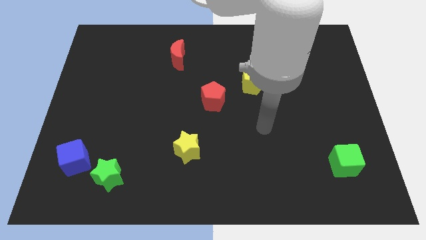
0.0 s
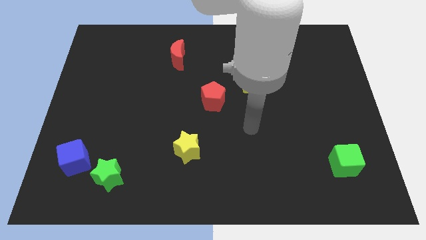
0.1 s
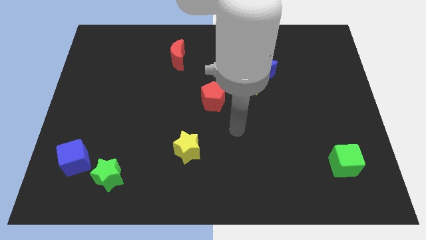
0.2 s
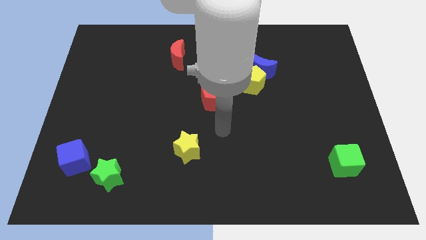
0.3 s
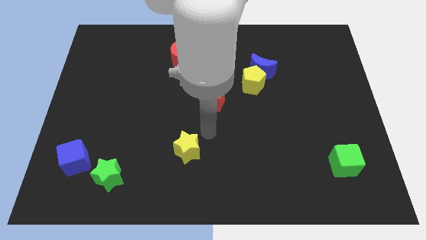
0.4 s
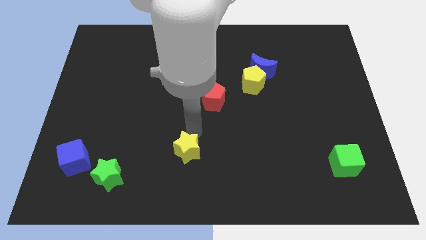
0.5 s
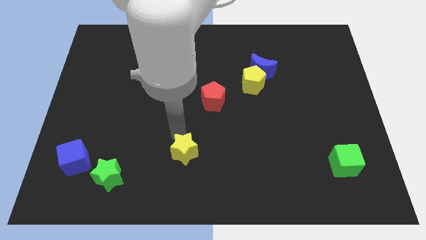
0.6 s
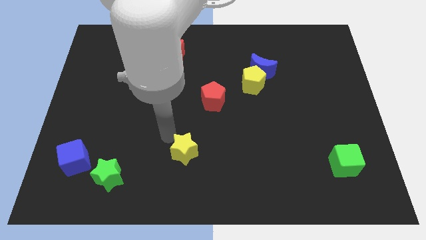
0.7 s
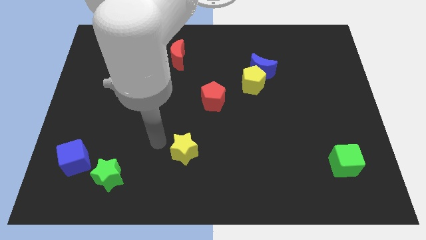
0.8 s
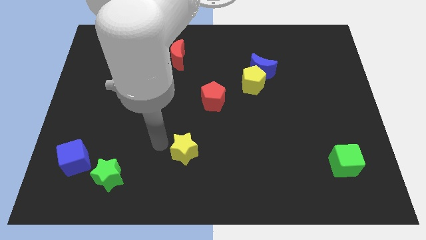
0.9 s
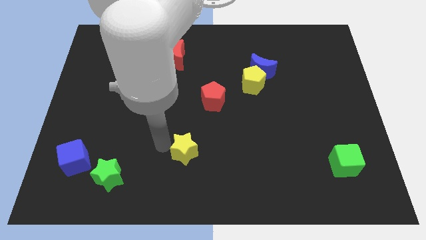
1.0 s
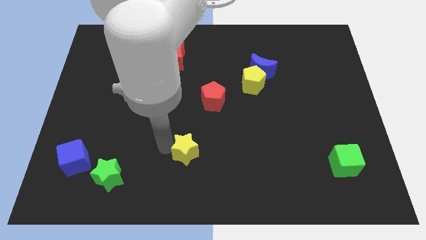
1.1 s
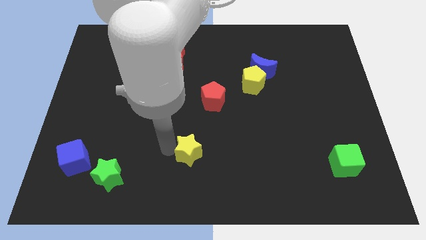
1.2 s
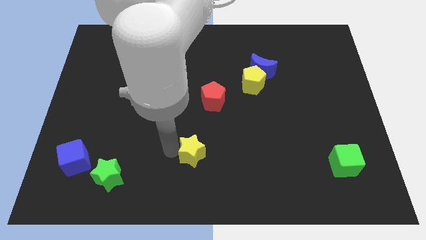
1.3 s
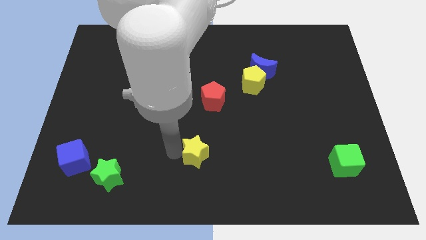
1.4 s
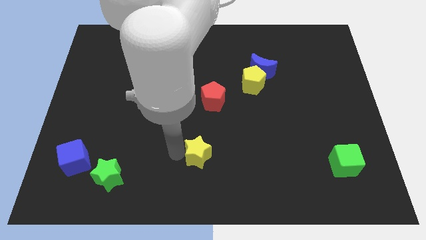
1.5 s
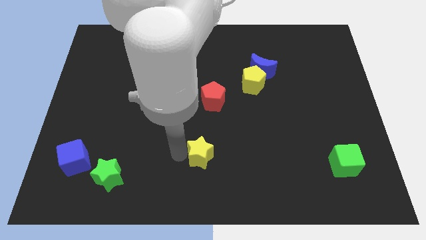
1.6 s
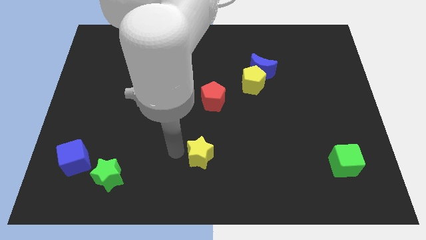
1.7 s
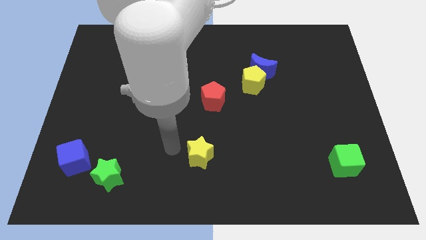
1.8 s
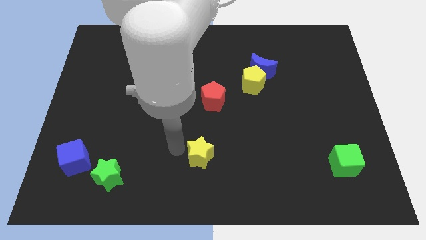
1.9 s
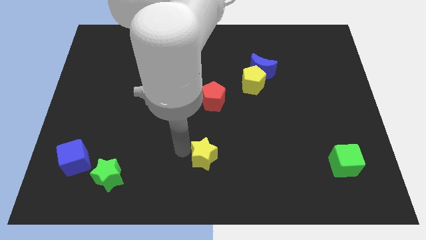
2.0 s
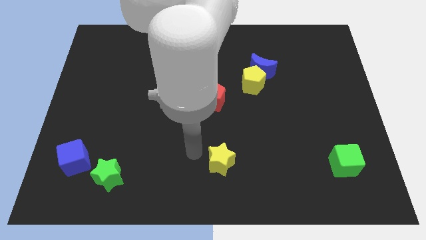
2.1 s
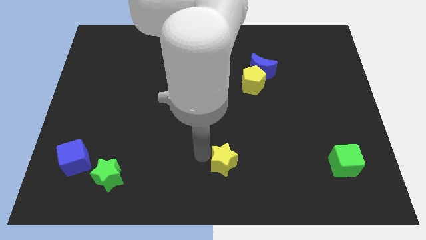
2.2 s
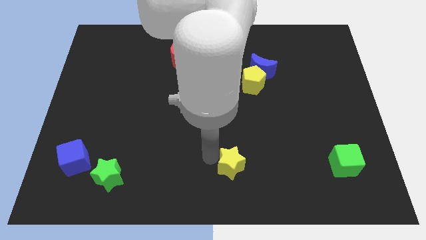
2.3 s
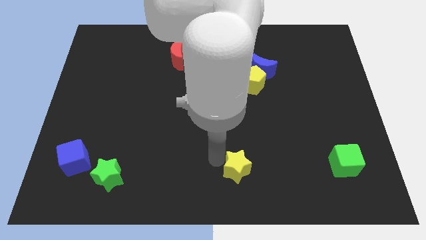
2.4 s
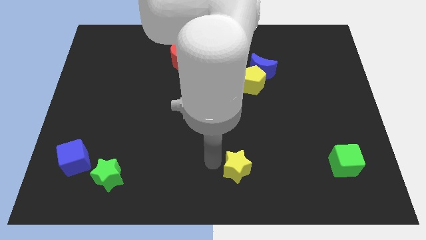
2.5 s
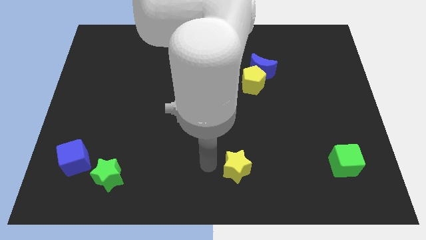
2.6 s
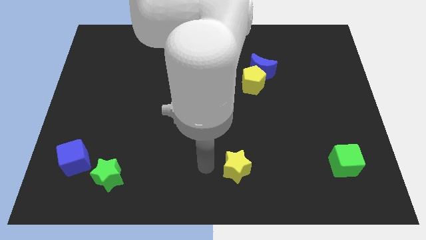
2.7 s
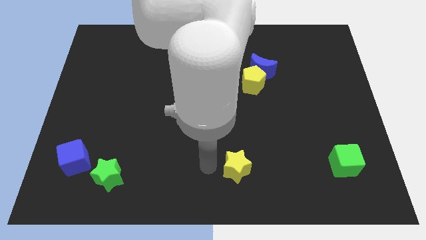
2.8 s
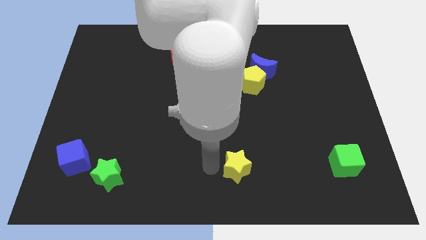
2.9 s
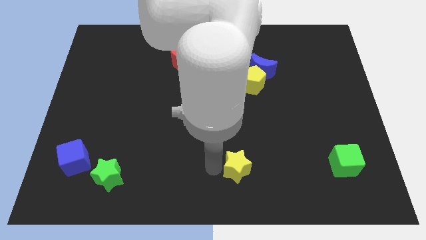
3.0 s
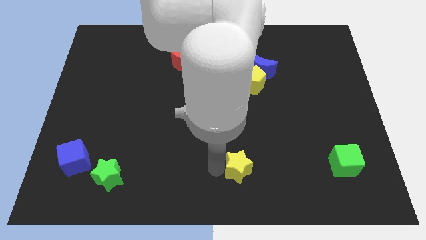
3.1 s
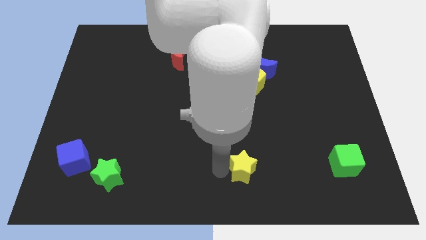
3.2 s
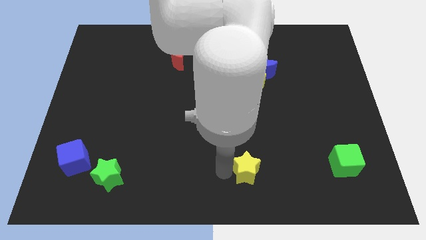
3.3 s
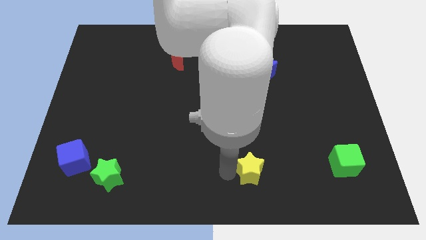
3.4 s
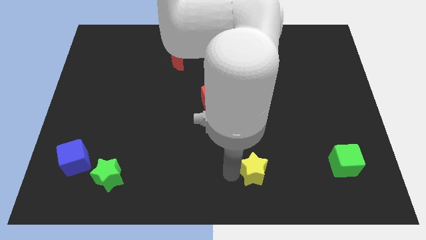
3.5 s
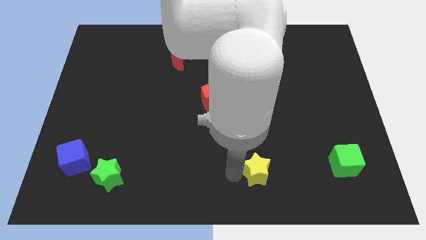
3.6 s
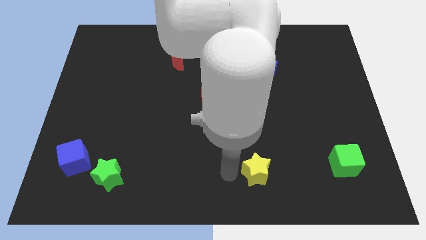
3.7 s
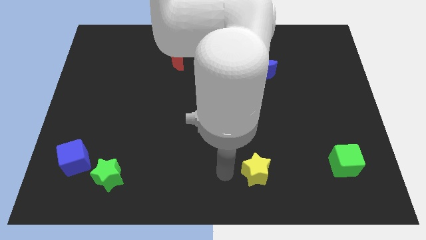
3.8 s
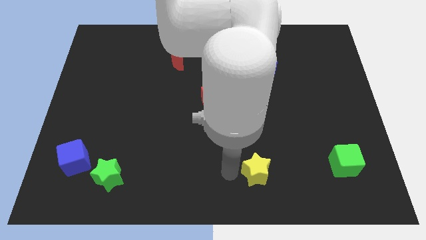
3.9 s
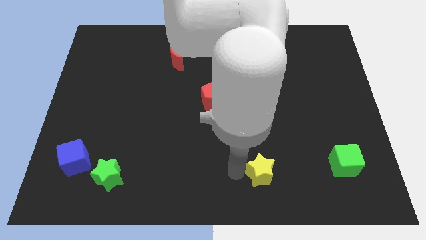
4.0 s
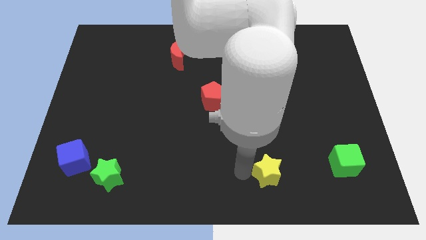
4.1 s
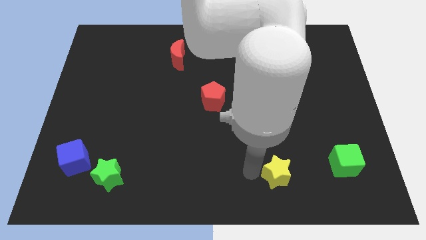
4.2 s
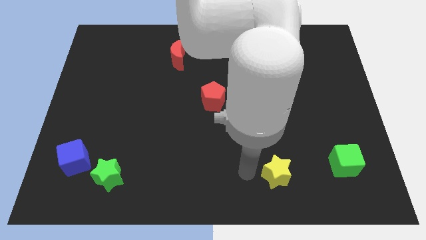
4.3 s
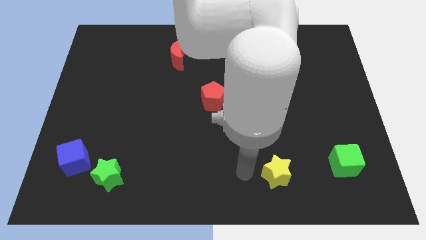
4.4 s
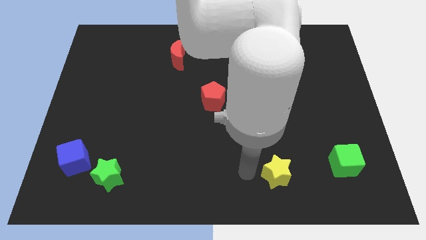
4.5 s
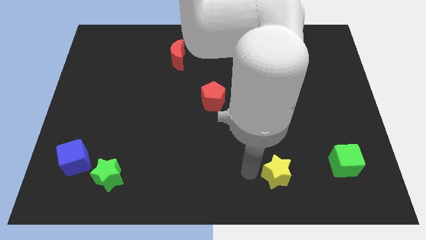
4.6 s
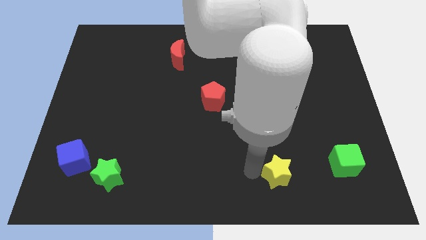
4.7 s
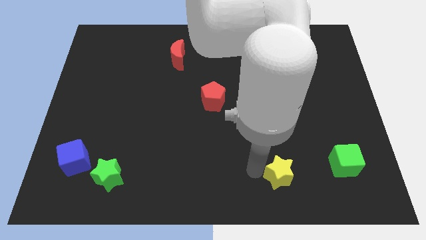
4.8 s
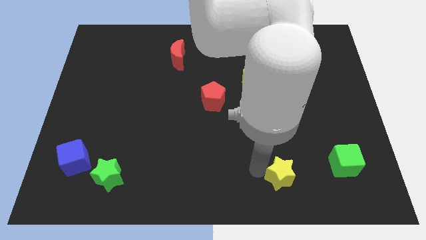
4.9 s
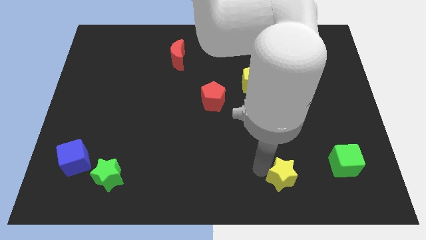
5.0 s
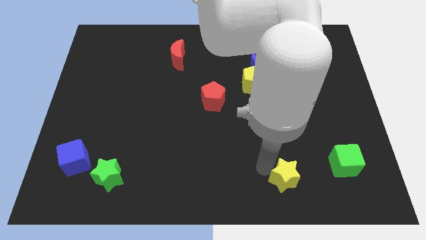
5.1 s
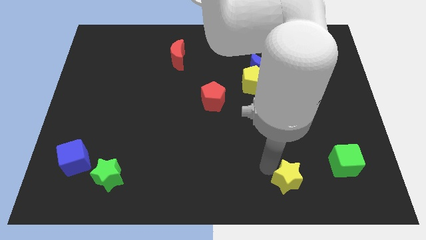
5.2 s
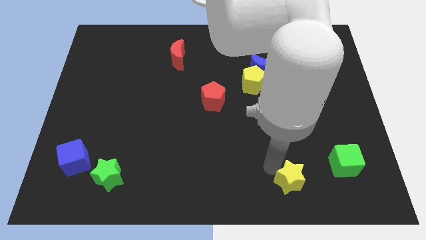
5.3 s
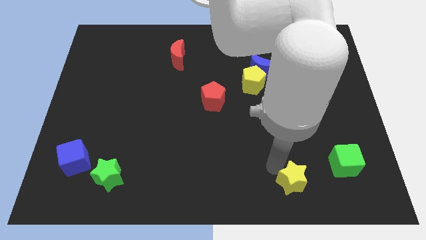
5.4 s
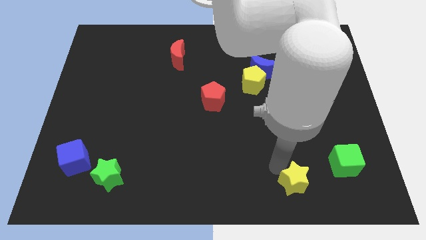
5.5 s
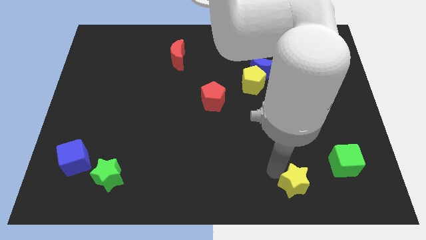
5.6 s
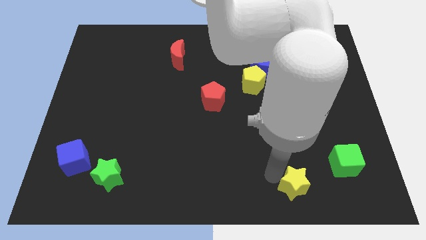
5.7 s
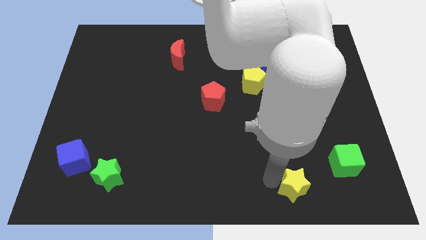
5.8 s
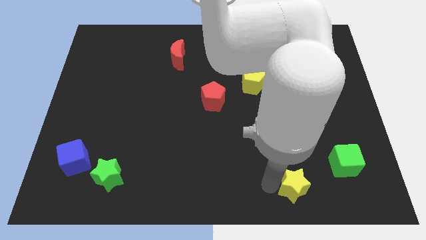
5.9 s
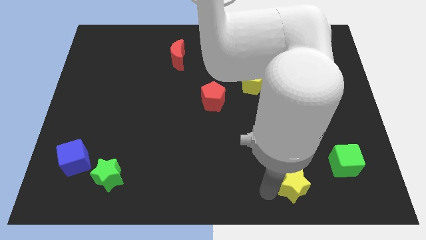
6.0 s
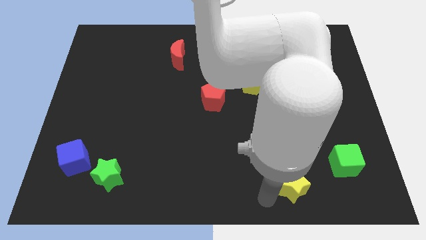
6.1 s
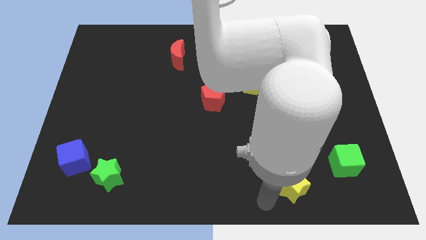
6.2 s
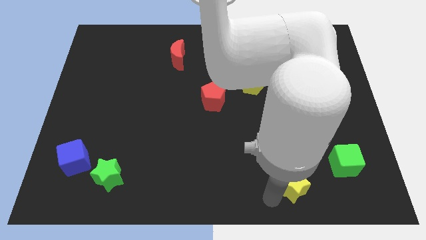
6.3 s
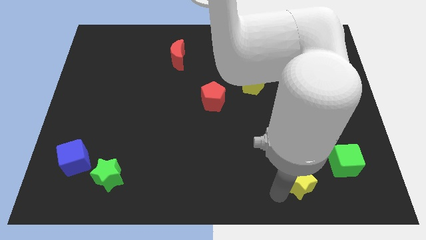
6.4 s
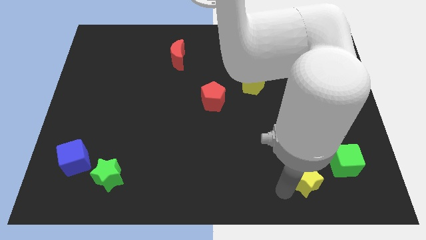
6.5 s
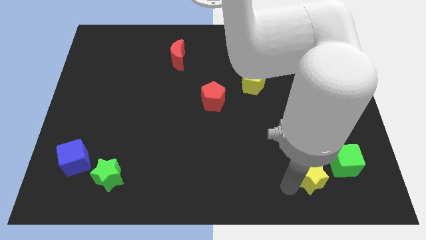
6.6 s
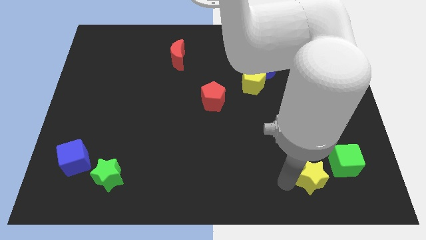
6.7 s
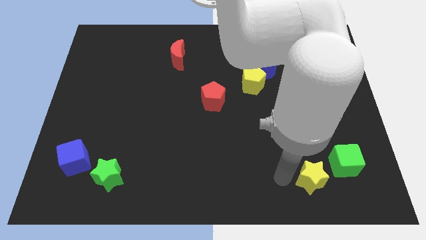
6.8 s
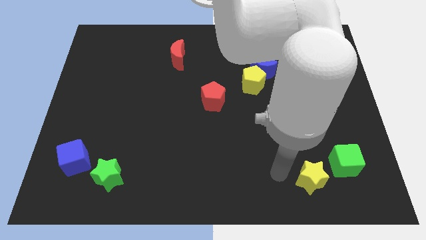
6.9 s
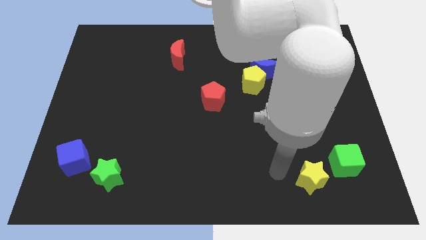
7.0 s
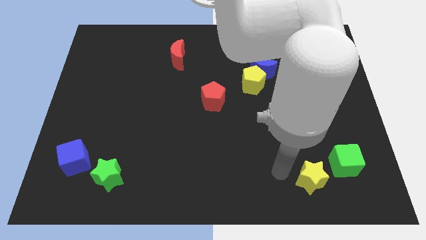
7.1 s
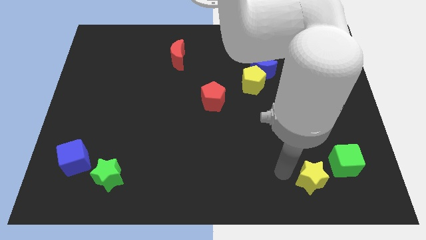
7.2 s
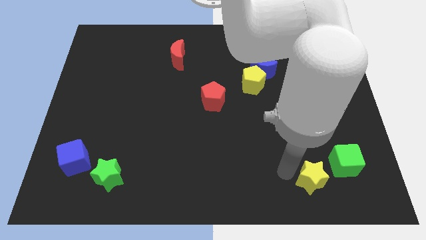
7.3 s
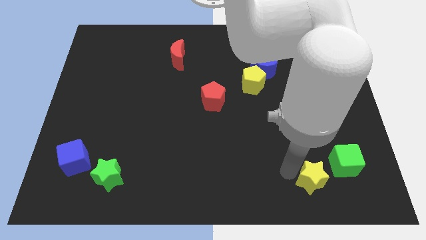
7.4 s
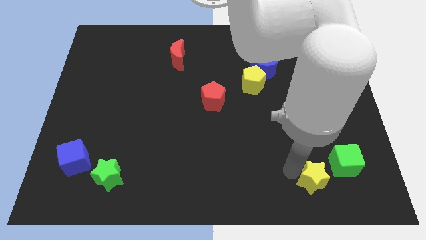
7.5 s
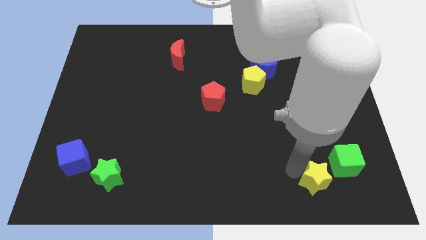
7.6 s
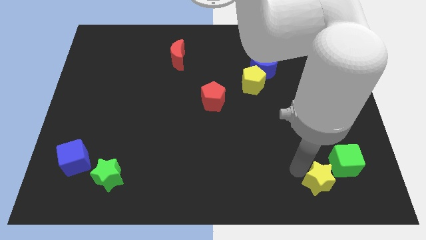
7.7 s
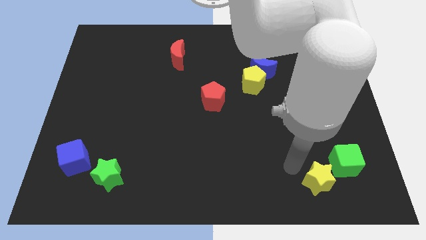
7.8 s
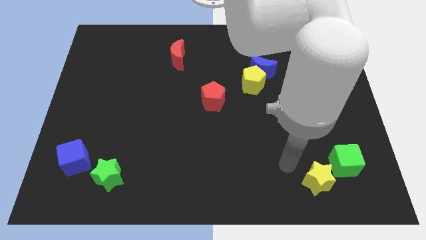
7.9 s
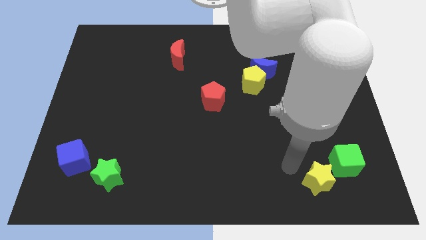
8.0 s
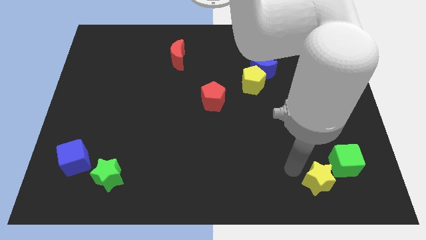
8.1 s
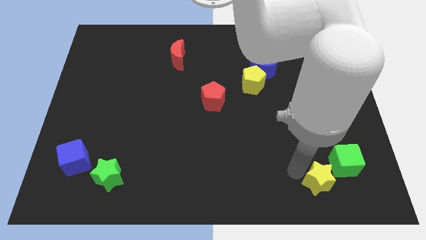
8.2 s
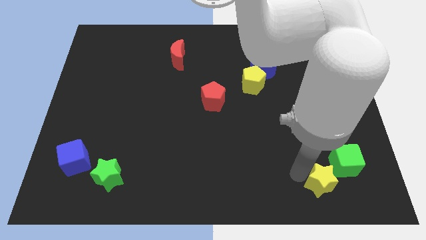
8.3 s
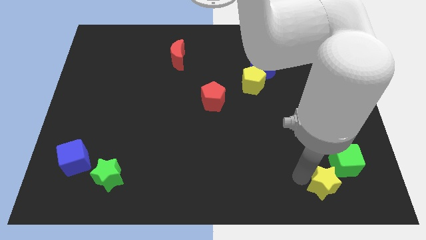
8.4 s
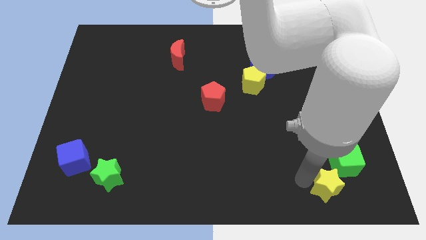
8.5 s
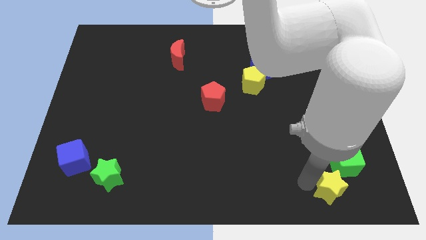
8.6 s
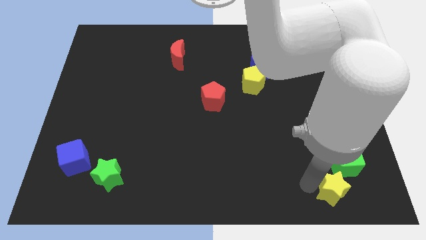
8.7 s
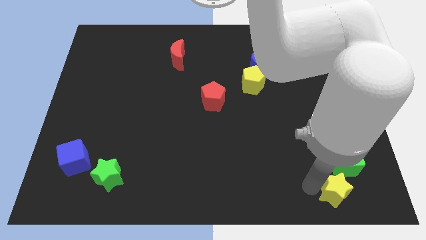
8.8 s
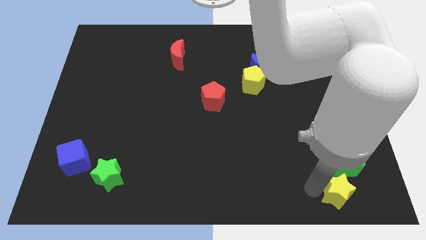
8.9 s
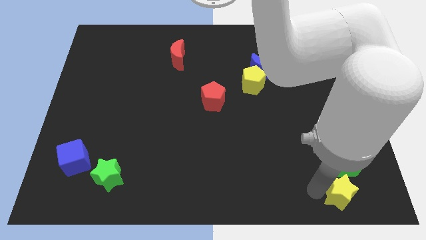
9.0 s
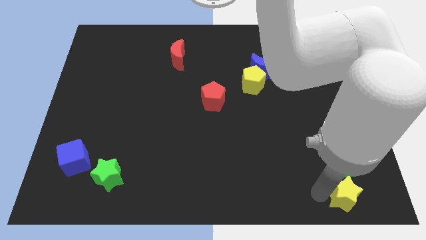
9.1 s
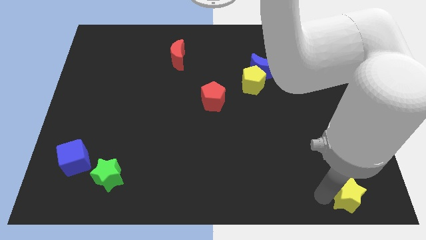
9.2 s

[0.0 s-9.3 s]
put the yellow star to the bottom right of the board
